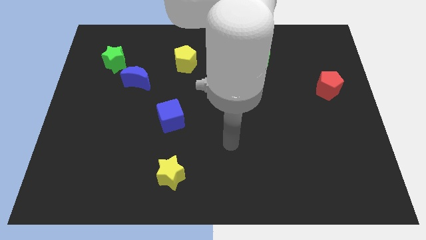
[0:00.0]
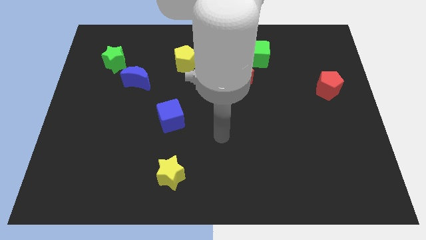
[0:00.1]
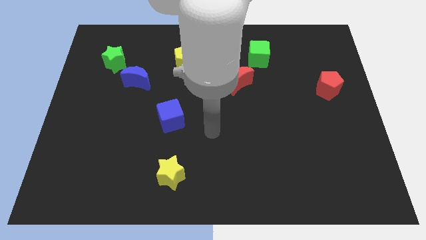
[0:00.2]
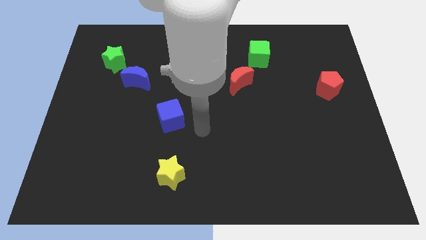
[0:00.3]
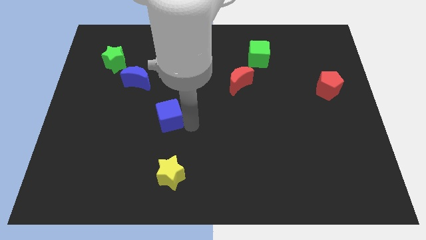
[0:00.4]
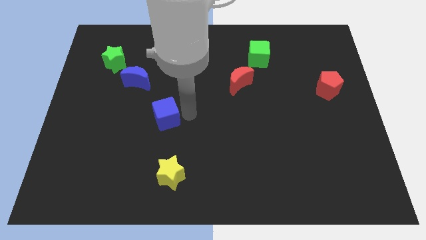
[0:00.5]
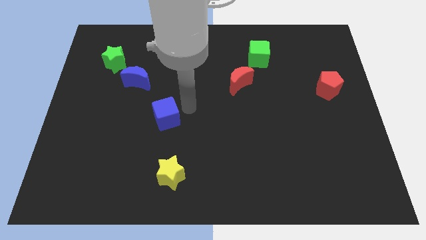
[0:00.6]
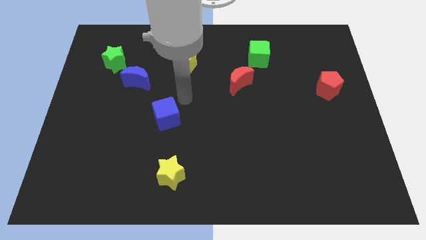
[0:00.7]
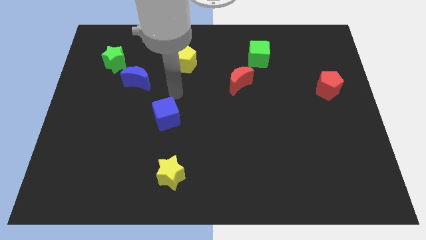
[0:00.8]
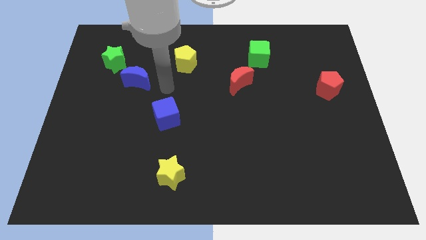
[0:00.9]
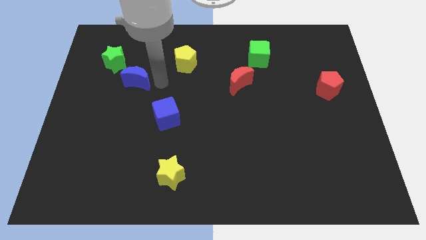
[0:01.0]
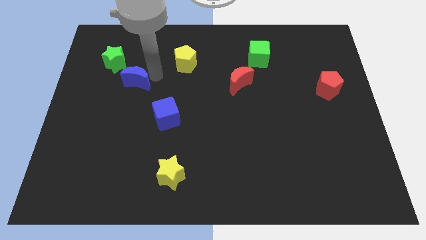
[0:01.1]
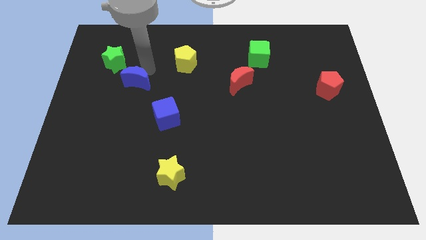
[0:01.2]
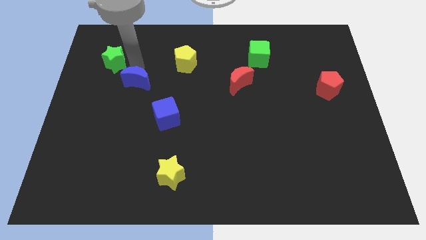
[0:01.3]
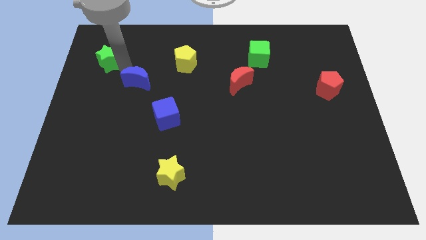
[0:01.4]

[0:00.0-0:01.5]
move the blue moon away from the green star

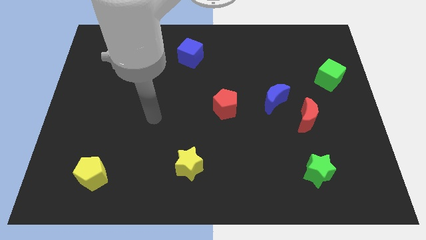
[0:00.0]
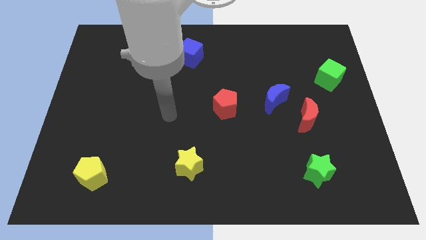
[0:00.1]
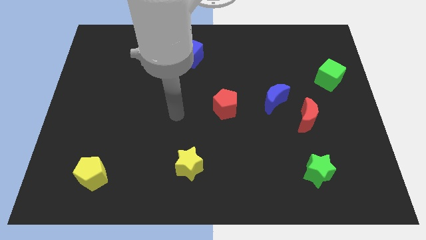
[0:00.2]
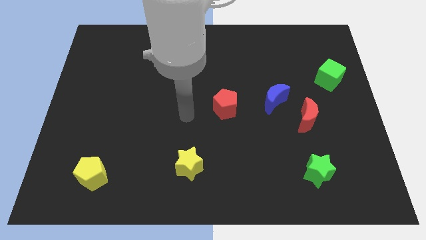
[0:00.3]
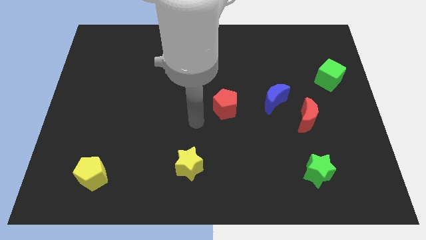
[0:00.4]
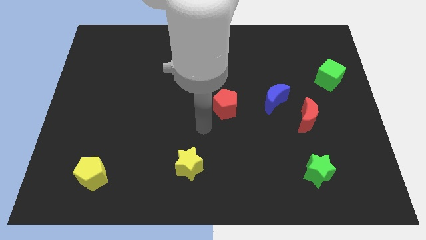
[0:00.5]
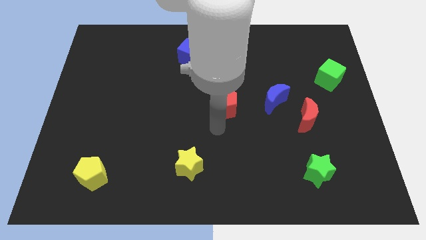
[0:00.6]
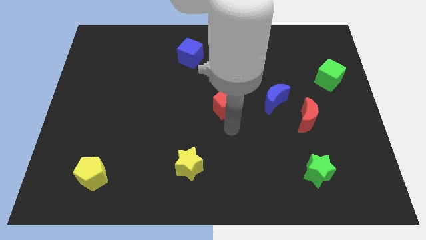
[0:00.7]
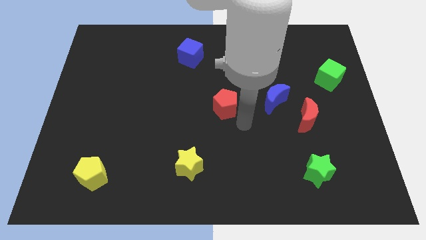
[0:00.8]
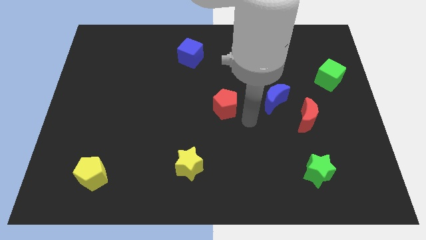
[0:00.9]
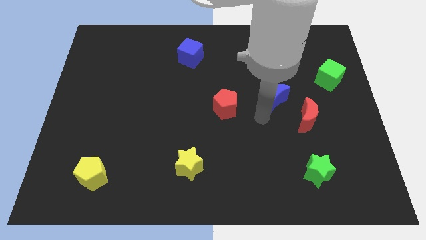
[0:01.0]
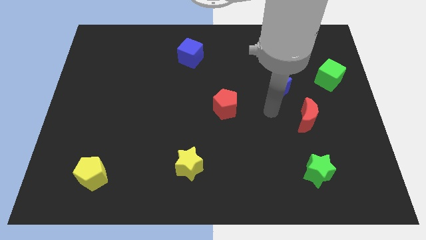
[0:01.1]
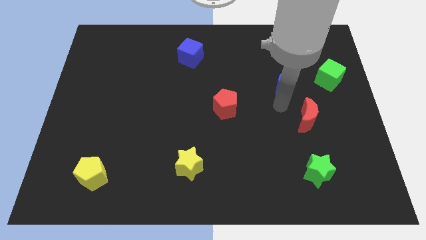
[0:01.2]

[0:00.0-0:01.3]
move the red moon away from the blue moon

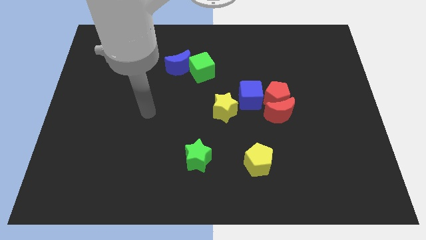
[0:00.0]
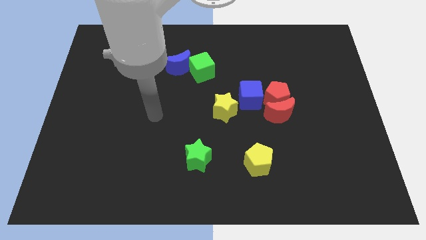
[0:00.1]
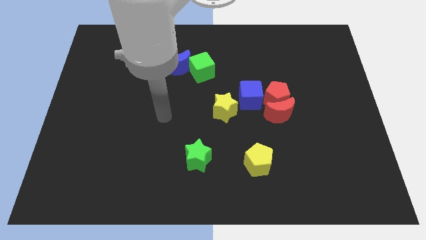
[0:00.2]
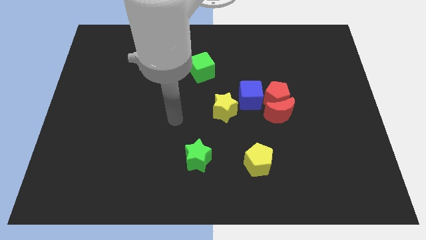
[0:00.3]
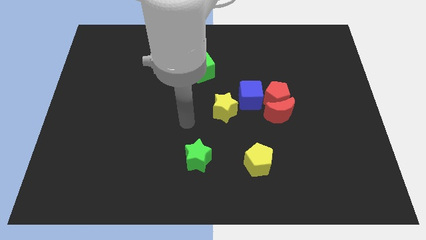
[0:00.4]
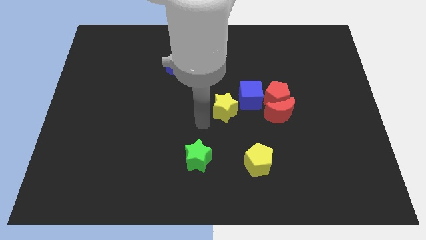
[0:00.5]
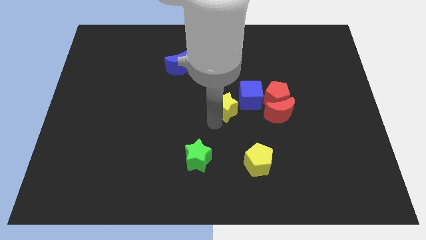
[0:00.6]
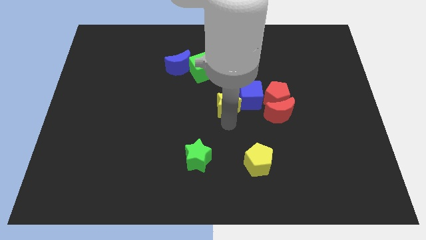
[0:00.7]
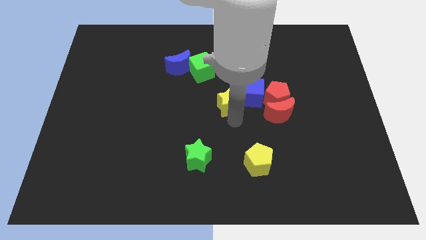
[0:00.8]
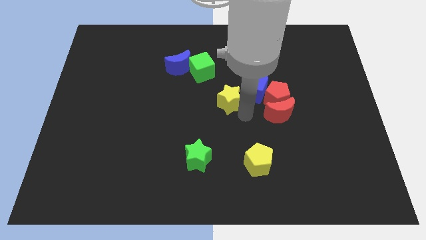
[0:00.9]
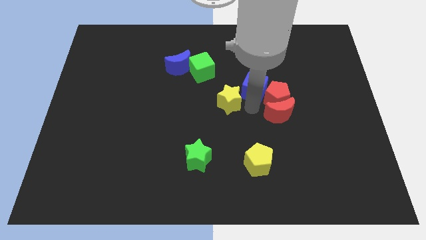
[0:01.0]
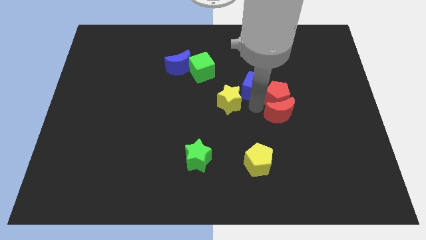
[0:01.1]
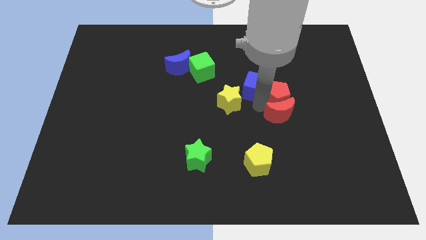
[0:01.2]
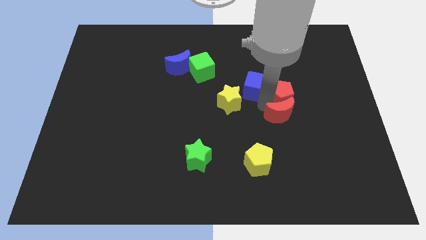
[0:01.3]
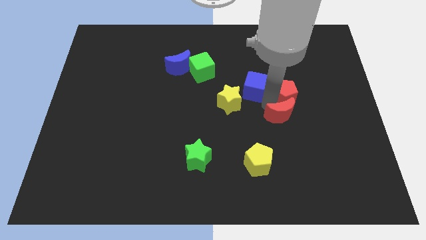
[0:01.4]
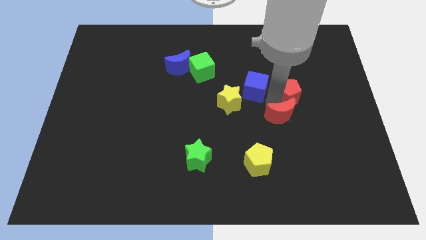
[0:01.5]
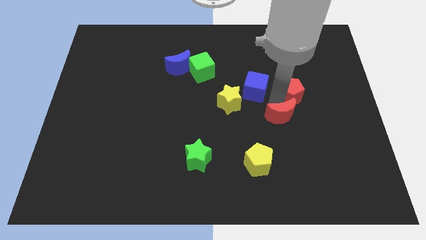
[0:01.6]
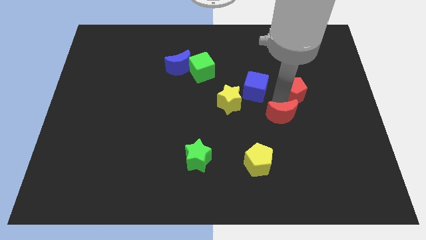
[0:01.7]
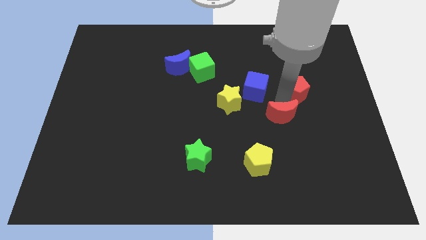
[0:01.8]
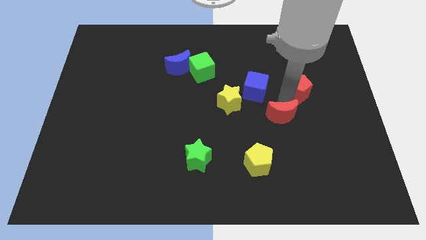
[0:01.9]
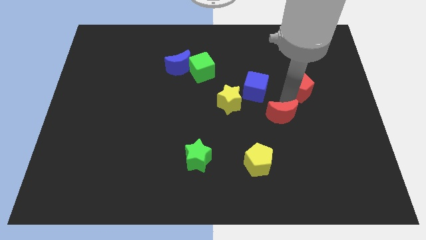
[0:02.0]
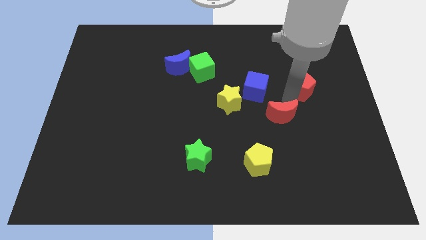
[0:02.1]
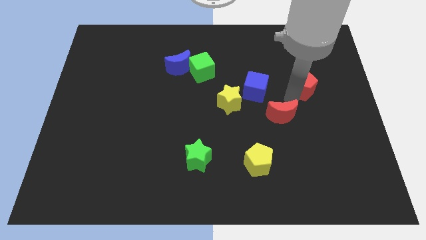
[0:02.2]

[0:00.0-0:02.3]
separate the red pentagon from the red moon and blue cube

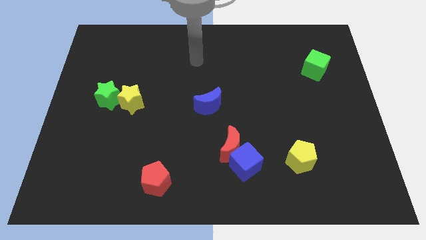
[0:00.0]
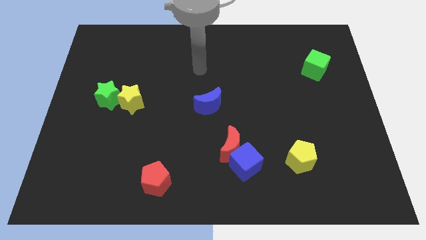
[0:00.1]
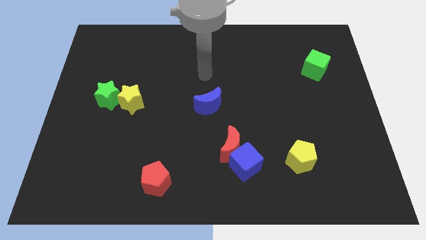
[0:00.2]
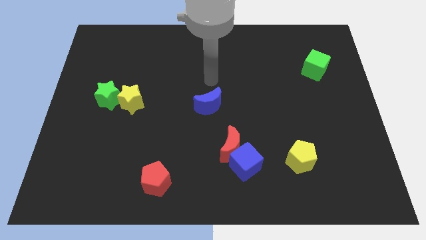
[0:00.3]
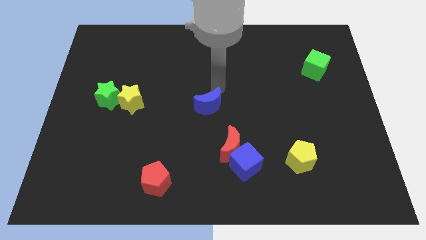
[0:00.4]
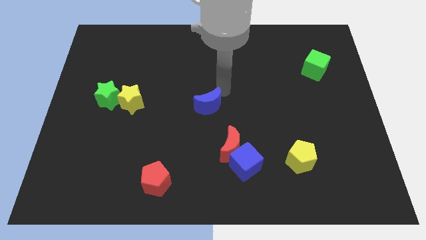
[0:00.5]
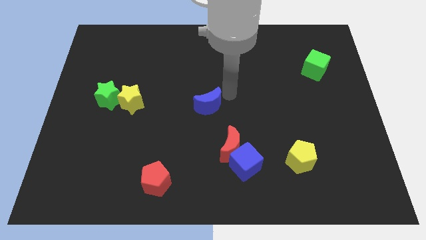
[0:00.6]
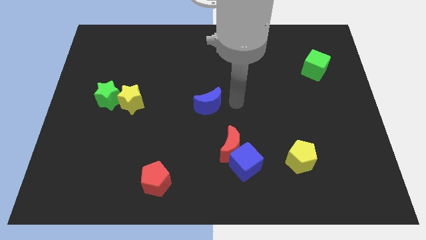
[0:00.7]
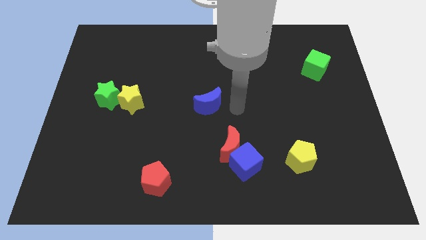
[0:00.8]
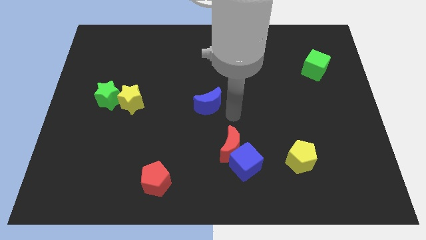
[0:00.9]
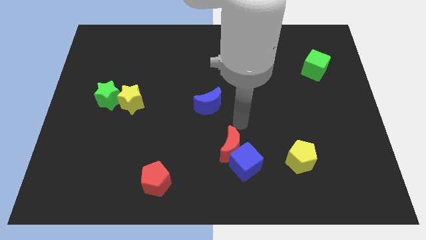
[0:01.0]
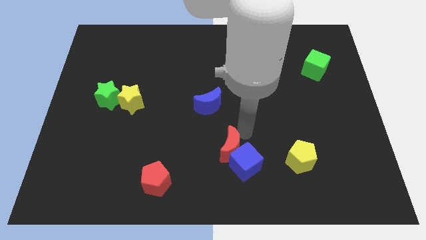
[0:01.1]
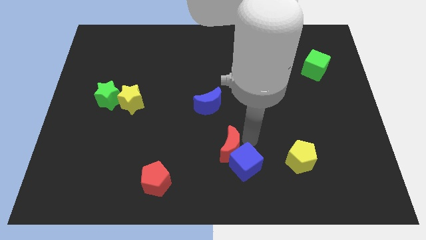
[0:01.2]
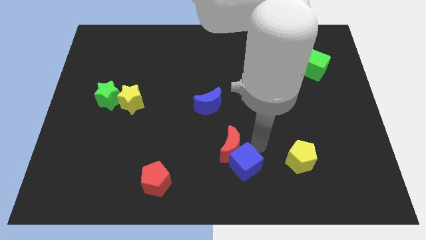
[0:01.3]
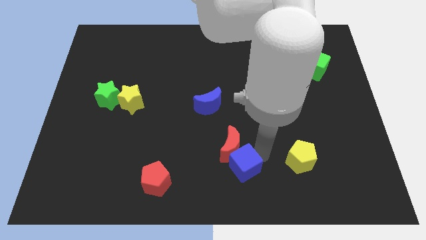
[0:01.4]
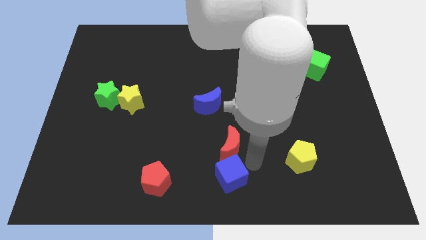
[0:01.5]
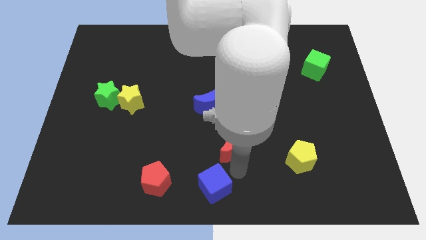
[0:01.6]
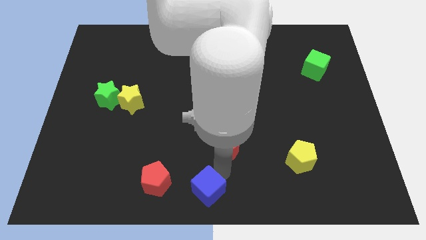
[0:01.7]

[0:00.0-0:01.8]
separate the red moon from the blue cube

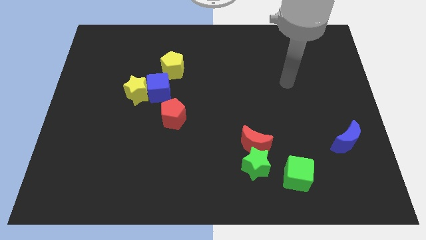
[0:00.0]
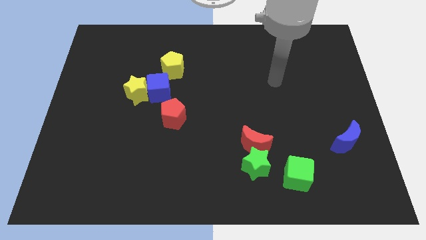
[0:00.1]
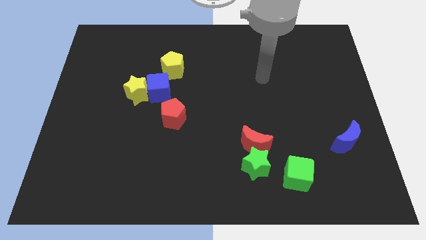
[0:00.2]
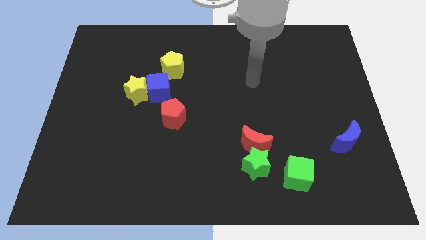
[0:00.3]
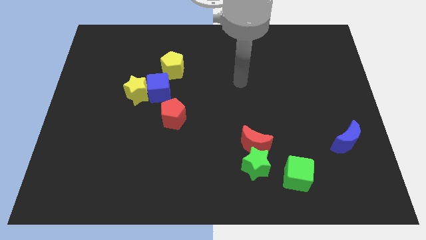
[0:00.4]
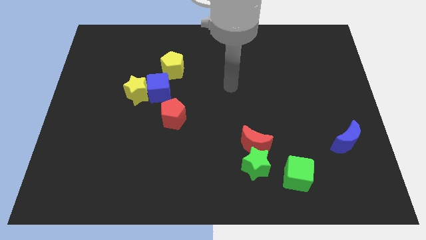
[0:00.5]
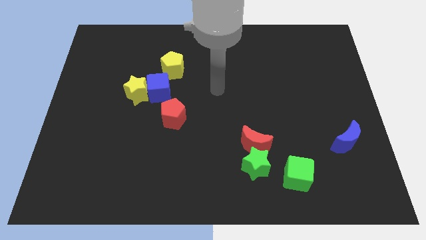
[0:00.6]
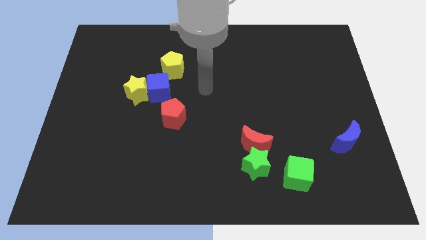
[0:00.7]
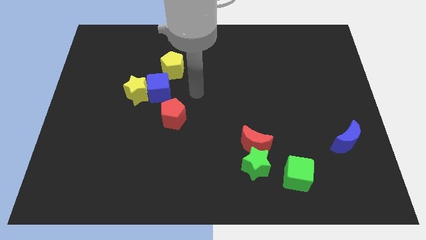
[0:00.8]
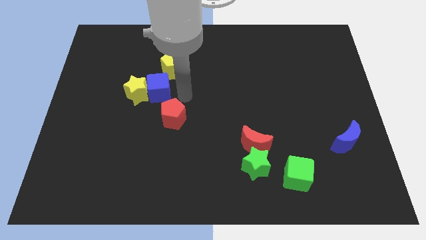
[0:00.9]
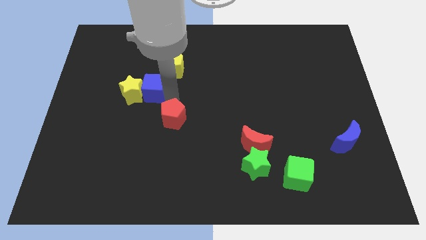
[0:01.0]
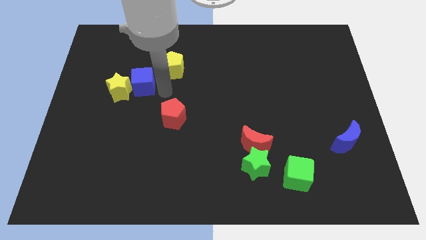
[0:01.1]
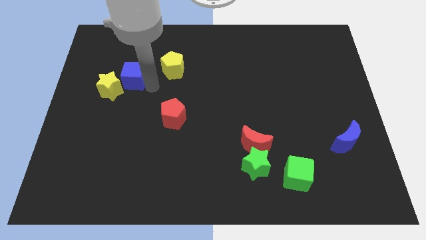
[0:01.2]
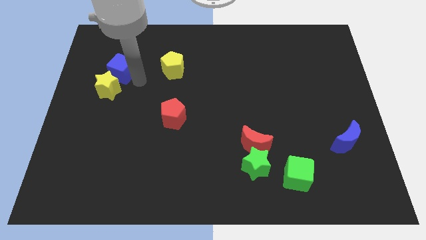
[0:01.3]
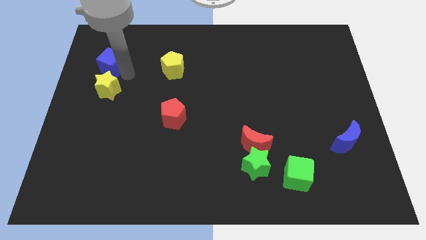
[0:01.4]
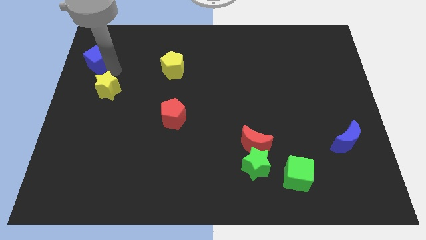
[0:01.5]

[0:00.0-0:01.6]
move the yellow star away from the blue cube

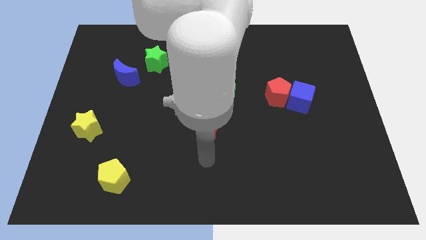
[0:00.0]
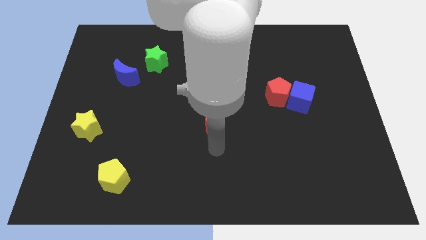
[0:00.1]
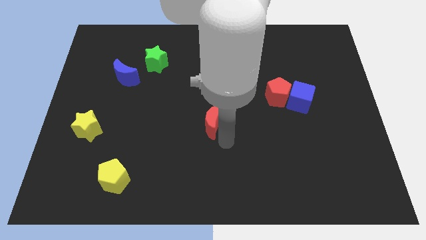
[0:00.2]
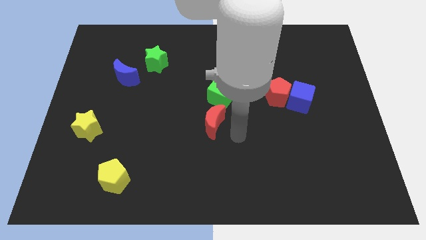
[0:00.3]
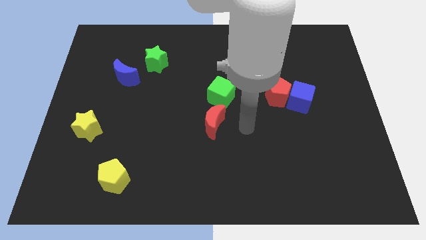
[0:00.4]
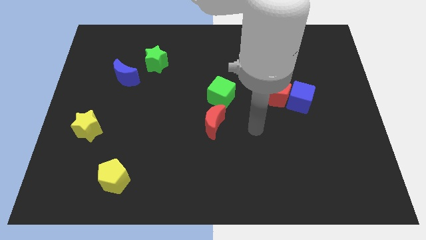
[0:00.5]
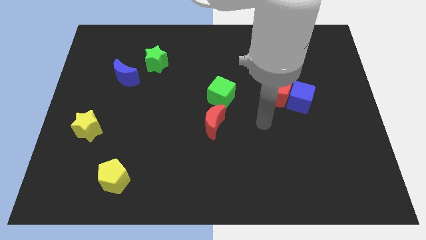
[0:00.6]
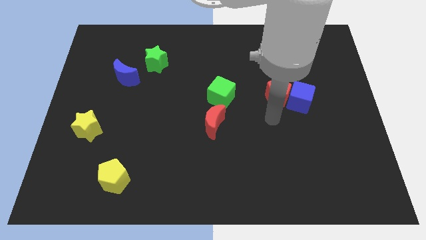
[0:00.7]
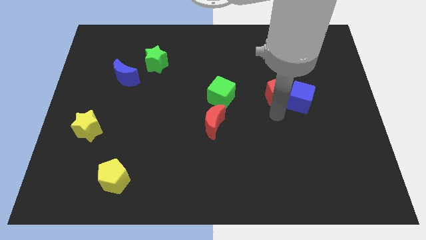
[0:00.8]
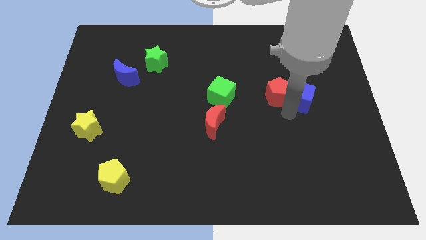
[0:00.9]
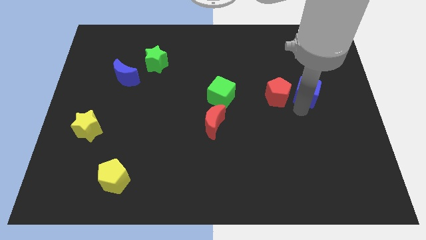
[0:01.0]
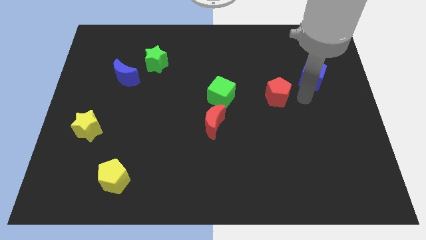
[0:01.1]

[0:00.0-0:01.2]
separate the red pentagon from the blue cube
